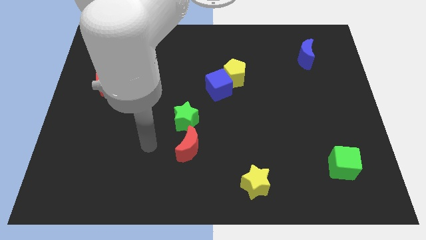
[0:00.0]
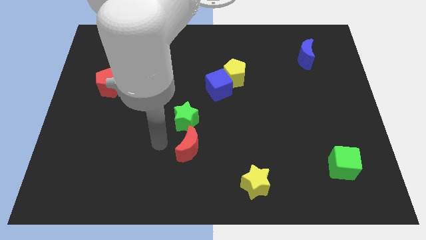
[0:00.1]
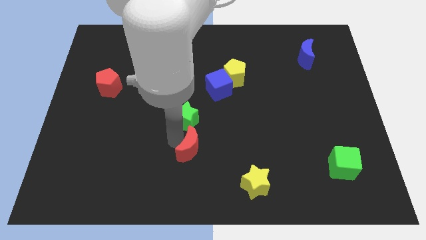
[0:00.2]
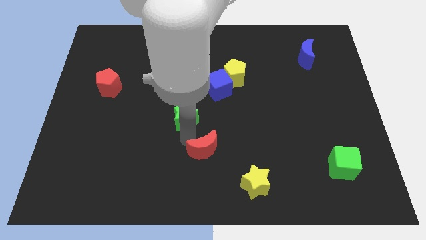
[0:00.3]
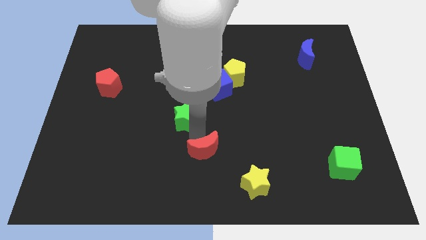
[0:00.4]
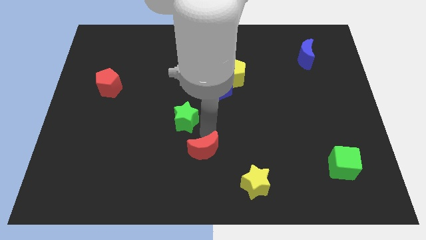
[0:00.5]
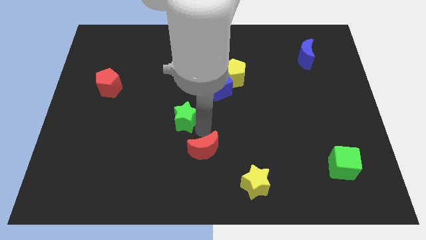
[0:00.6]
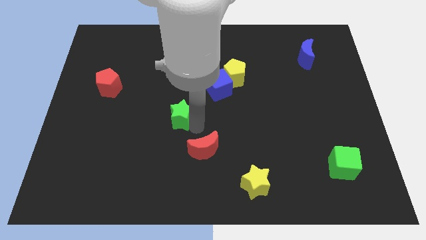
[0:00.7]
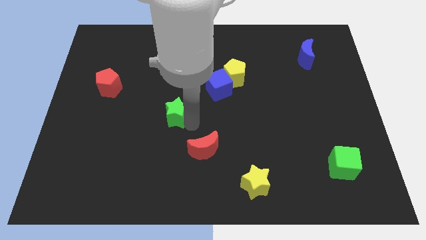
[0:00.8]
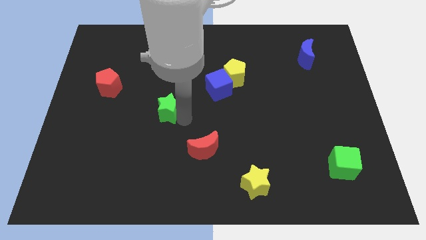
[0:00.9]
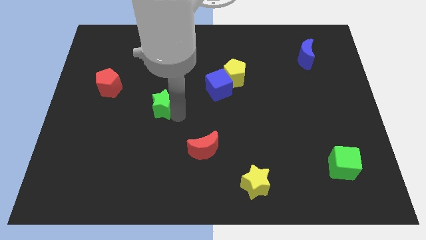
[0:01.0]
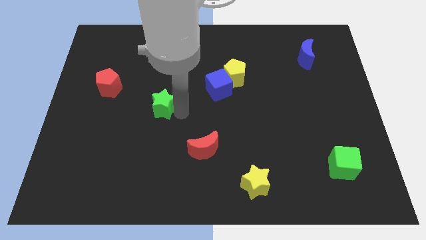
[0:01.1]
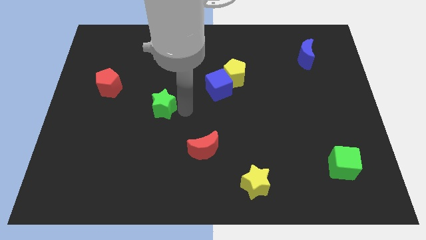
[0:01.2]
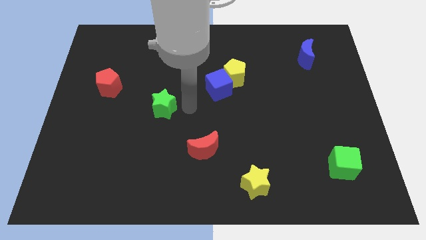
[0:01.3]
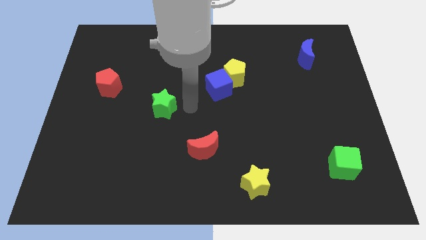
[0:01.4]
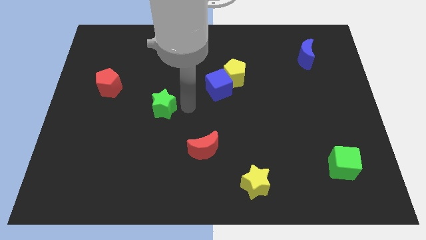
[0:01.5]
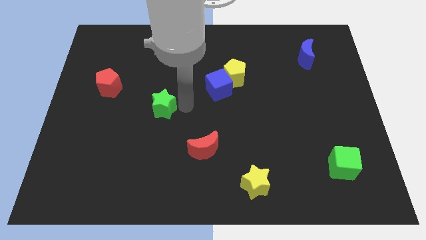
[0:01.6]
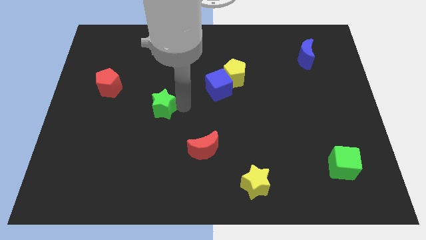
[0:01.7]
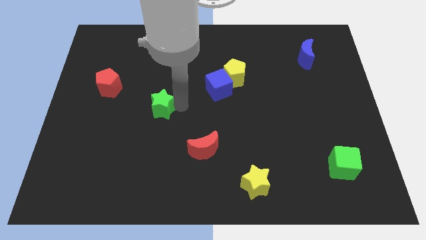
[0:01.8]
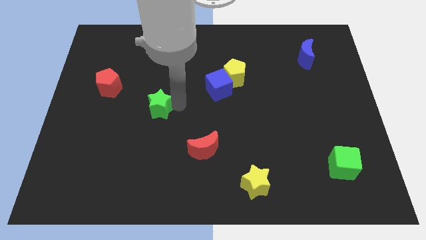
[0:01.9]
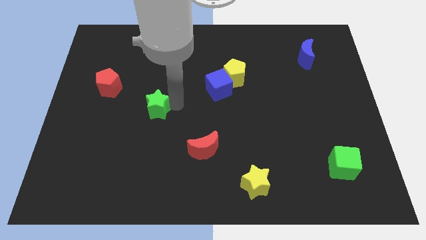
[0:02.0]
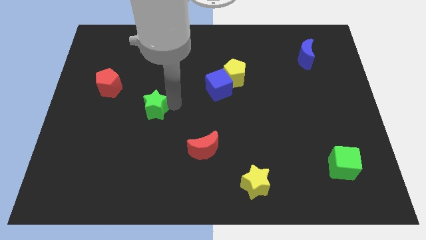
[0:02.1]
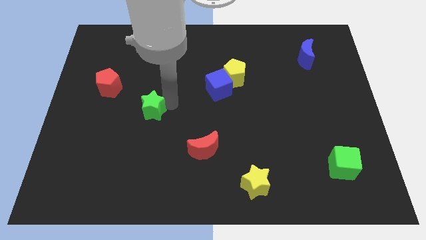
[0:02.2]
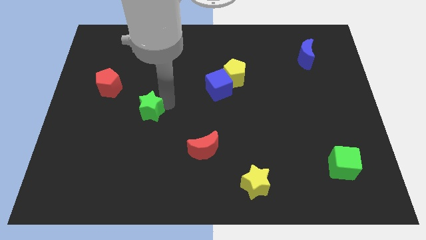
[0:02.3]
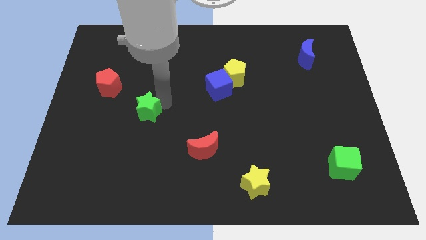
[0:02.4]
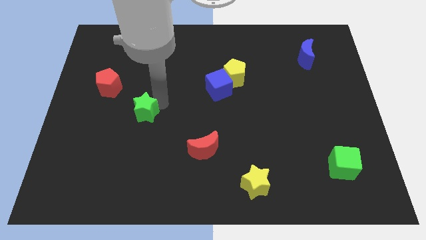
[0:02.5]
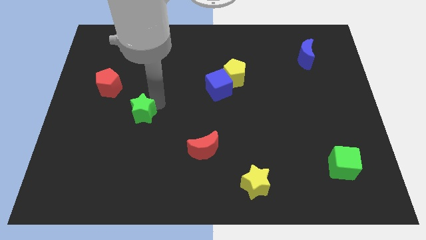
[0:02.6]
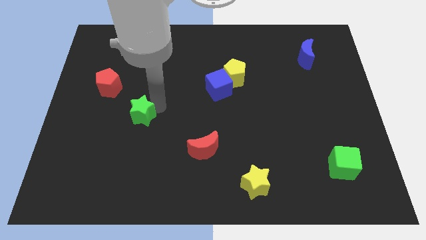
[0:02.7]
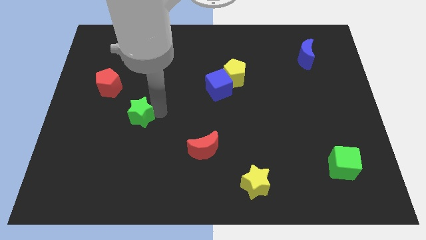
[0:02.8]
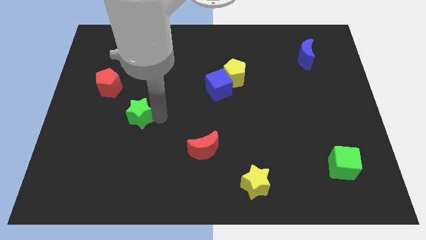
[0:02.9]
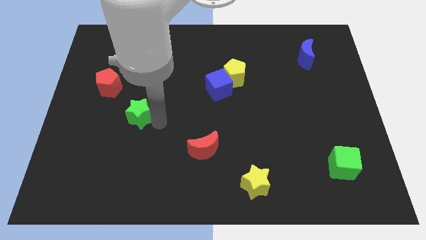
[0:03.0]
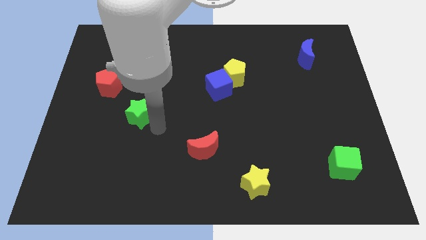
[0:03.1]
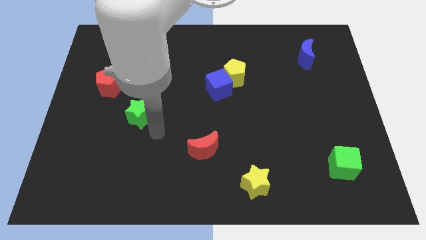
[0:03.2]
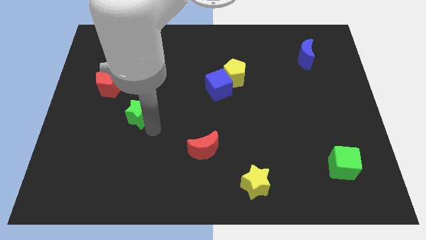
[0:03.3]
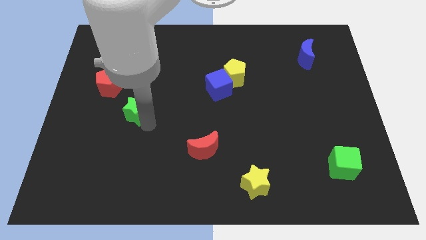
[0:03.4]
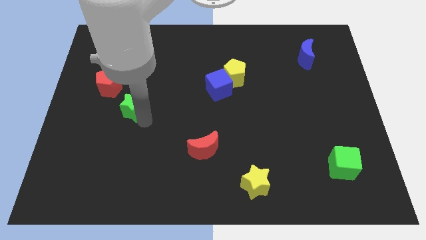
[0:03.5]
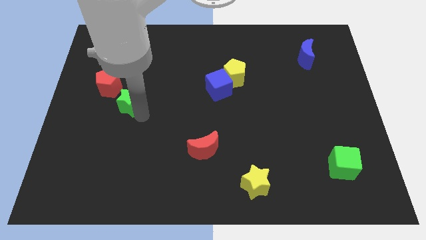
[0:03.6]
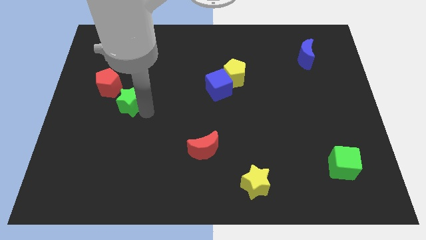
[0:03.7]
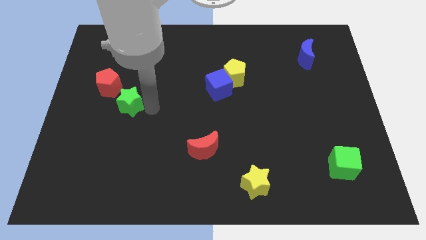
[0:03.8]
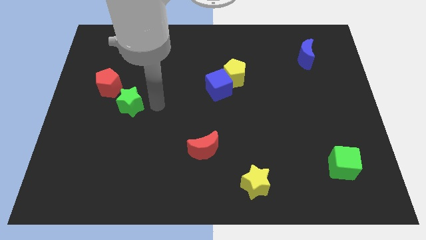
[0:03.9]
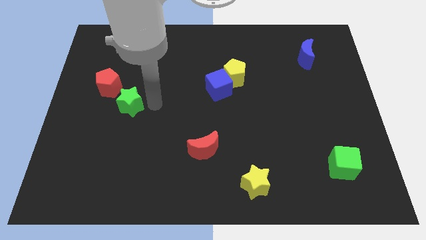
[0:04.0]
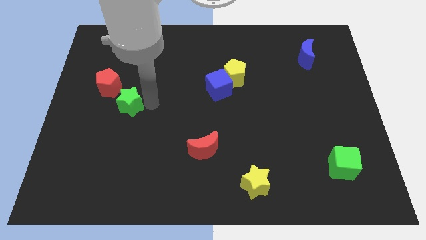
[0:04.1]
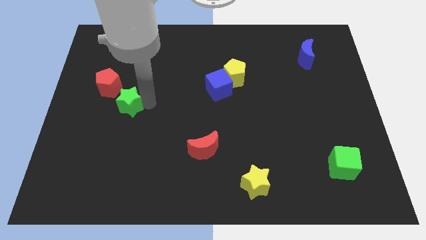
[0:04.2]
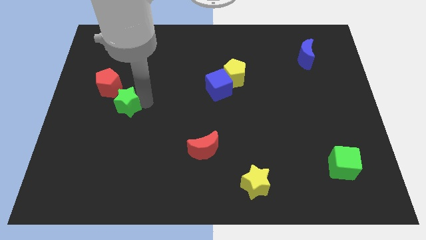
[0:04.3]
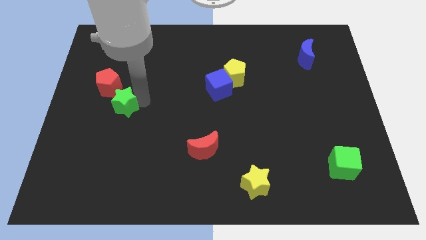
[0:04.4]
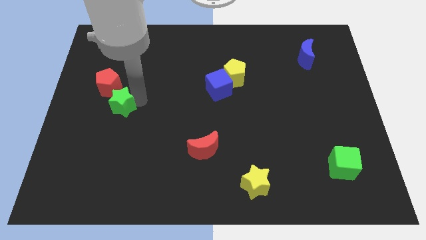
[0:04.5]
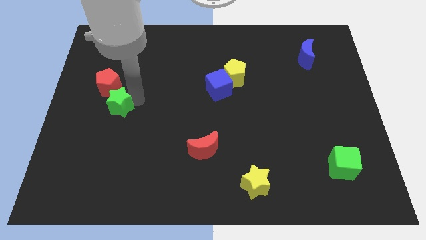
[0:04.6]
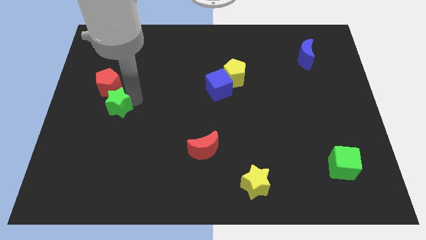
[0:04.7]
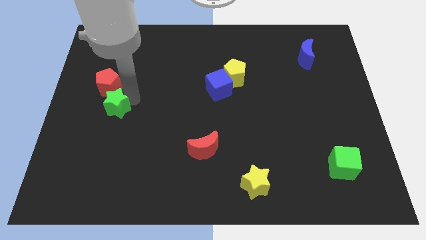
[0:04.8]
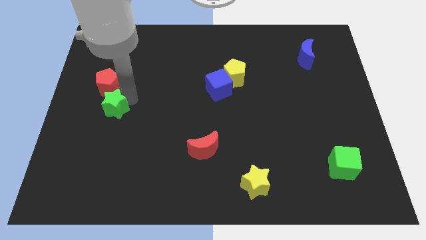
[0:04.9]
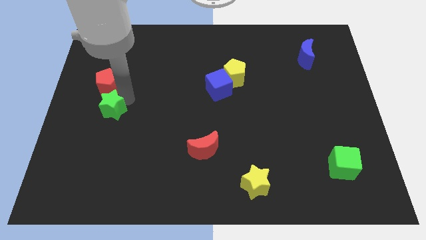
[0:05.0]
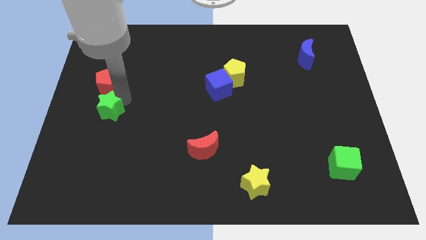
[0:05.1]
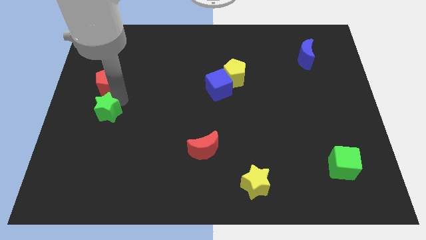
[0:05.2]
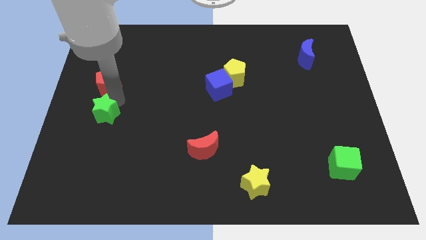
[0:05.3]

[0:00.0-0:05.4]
push the green star to the left side

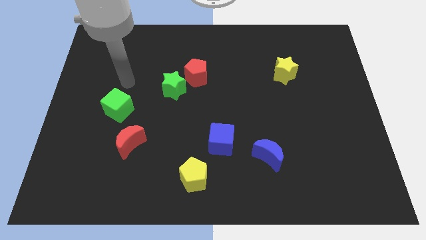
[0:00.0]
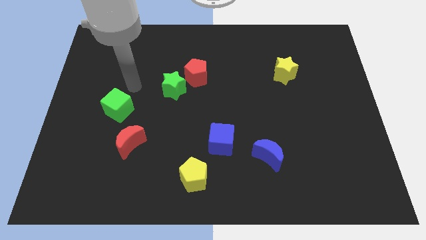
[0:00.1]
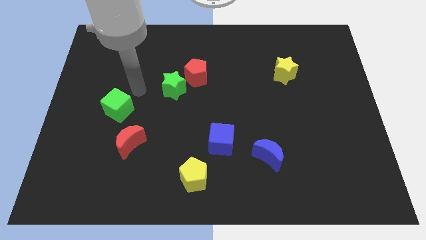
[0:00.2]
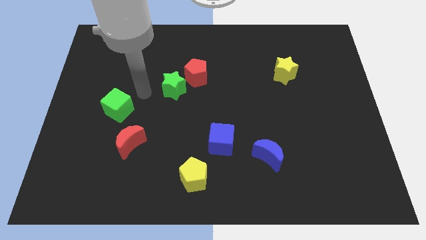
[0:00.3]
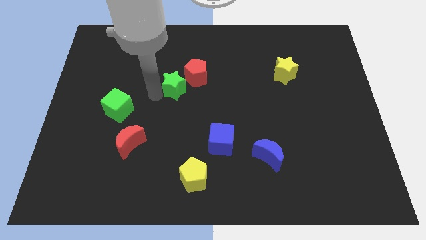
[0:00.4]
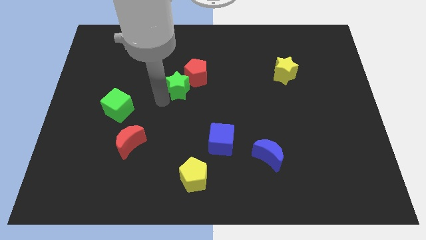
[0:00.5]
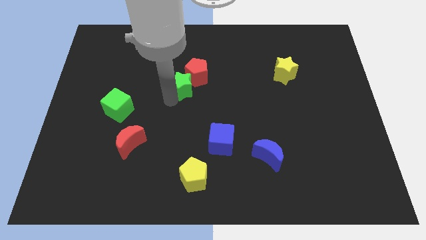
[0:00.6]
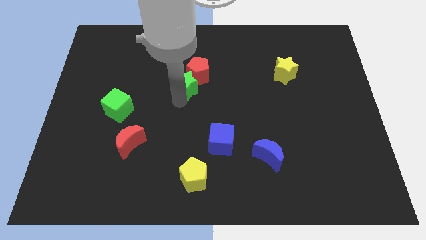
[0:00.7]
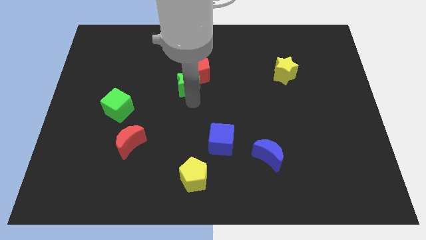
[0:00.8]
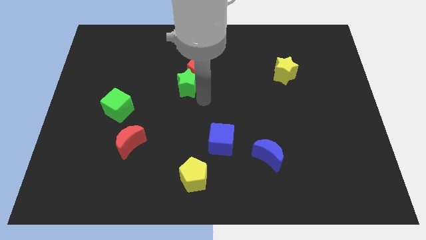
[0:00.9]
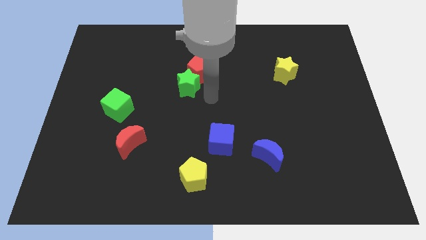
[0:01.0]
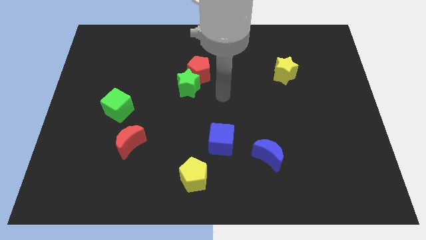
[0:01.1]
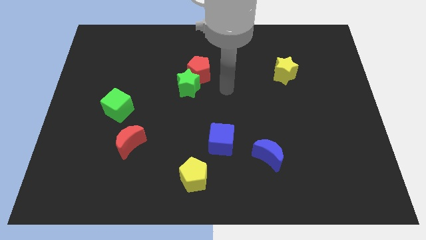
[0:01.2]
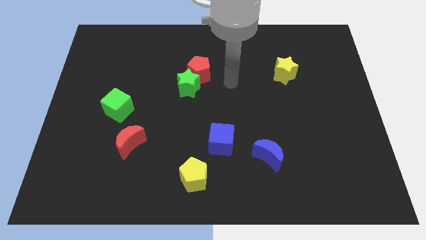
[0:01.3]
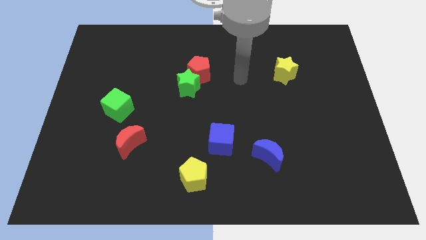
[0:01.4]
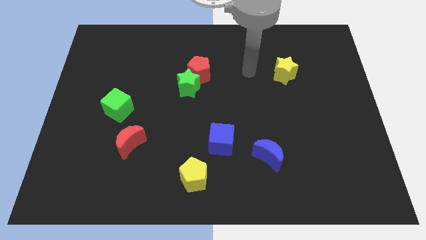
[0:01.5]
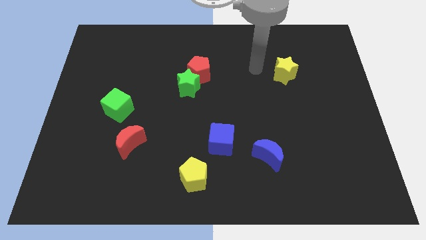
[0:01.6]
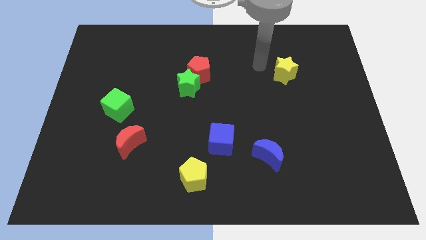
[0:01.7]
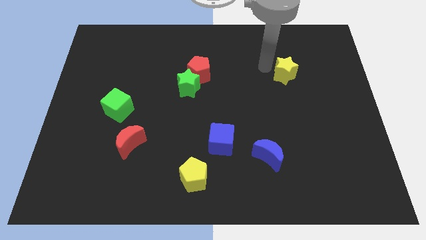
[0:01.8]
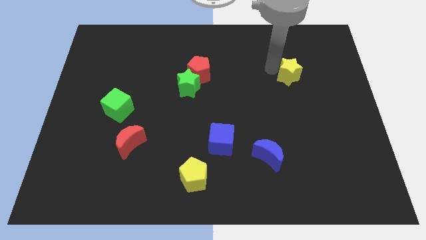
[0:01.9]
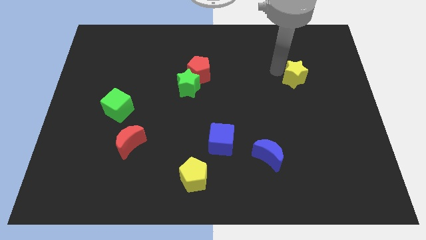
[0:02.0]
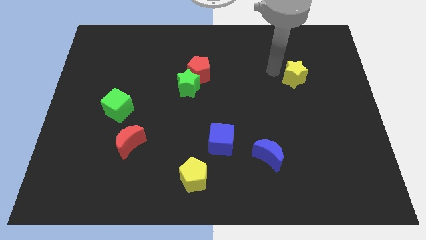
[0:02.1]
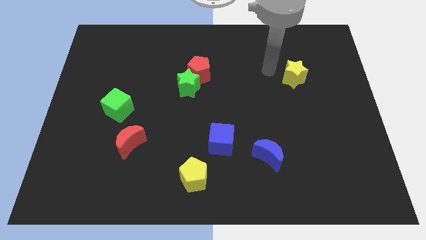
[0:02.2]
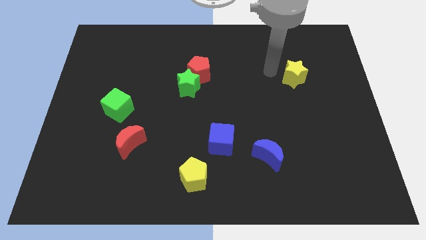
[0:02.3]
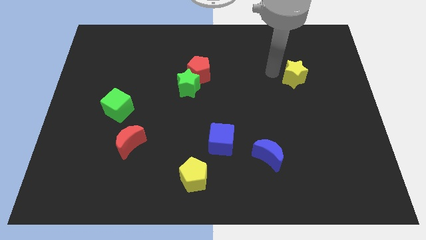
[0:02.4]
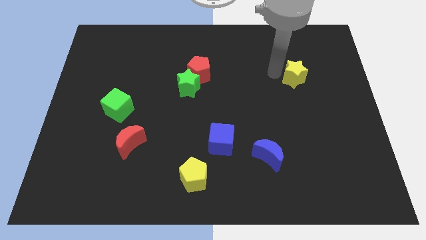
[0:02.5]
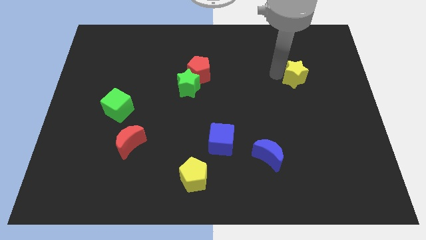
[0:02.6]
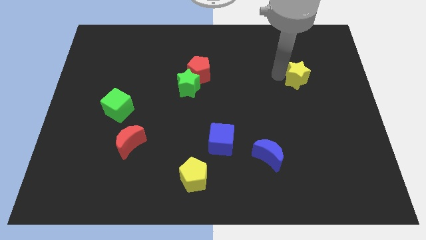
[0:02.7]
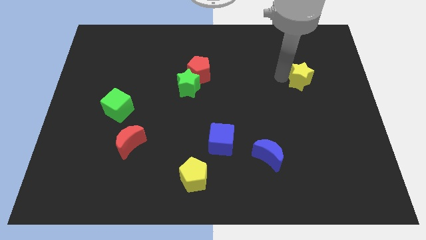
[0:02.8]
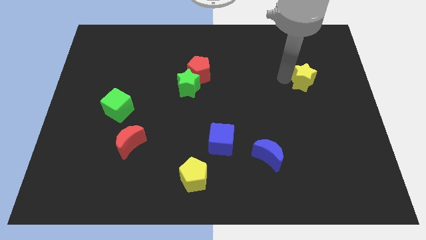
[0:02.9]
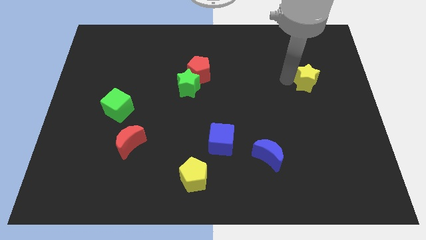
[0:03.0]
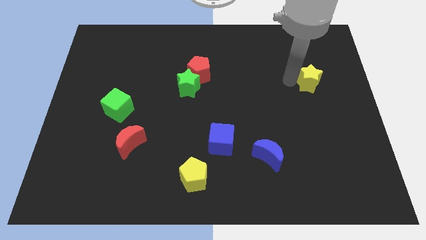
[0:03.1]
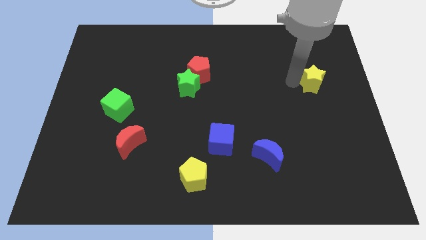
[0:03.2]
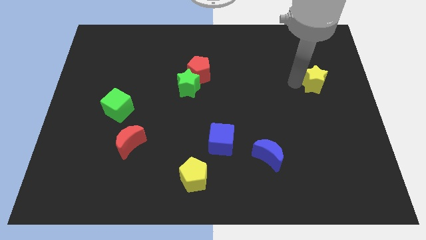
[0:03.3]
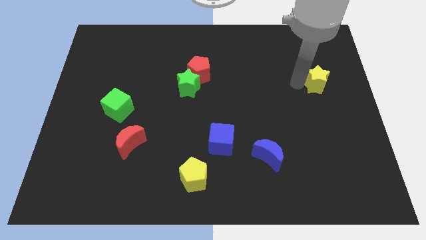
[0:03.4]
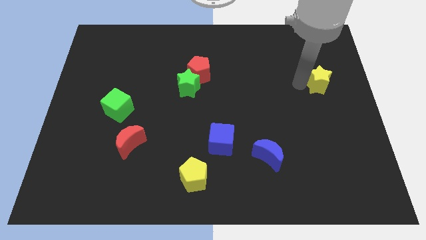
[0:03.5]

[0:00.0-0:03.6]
put the yellow star to the center right
